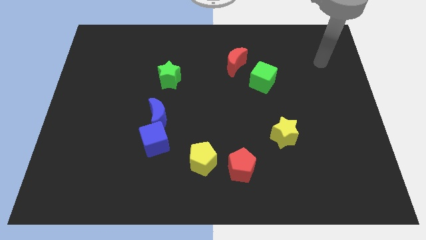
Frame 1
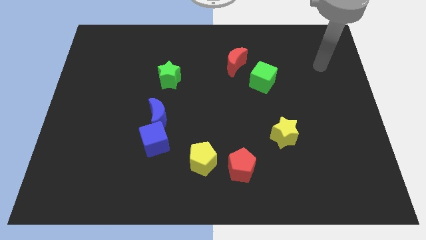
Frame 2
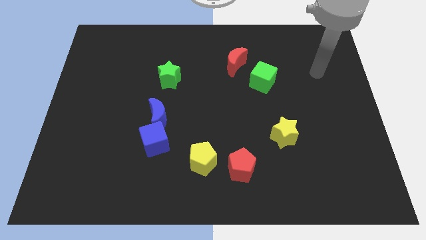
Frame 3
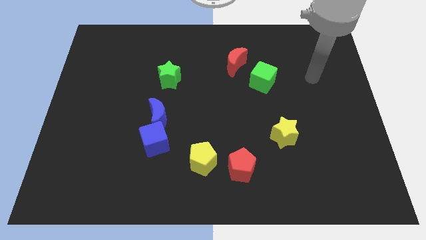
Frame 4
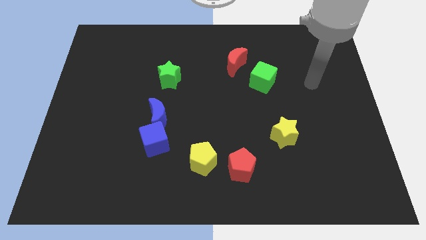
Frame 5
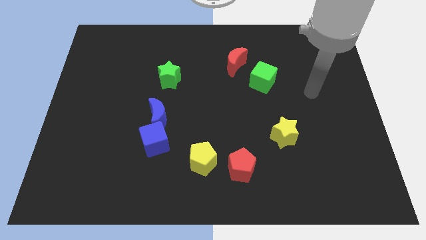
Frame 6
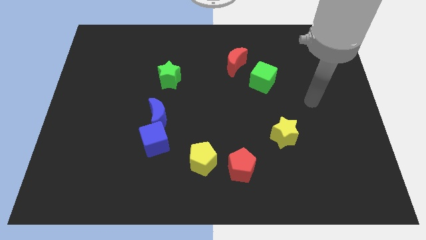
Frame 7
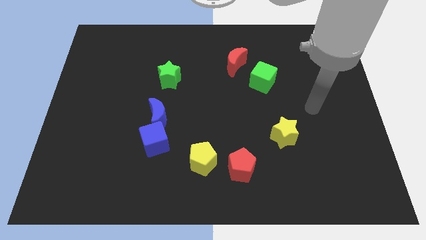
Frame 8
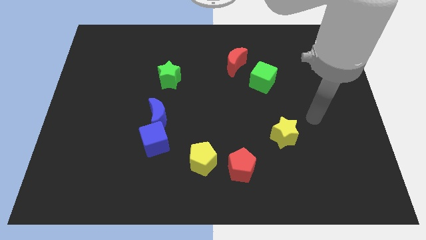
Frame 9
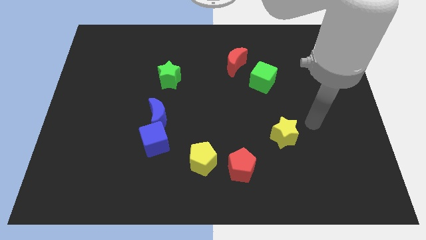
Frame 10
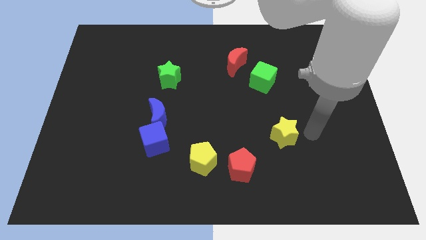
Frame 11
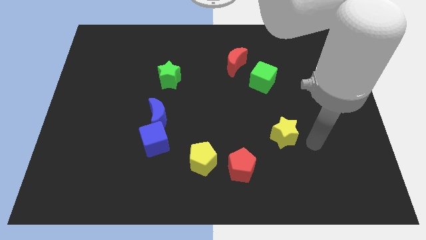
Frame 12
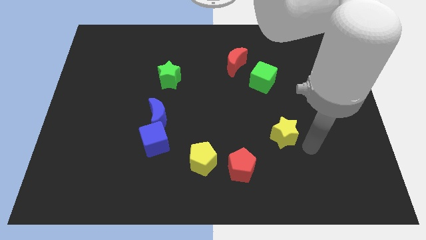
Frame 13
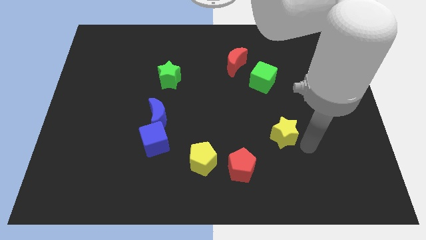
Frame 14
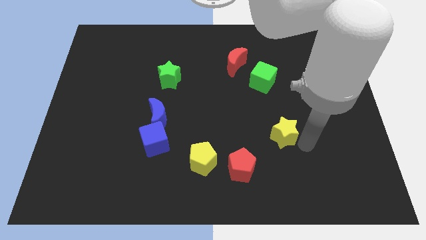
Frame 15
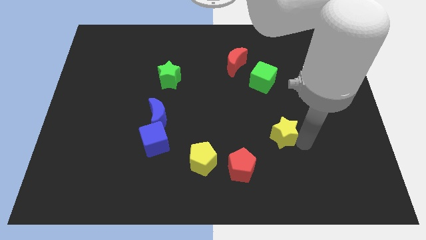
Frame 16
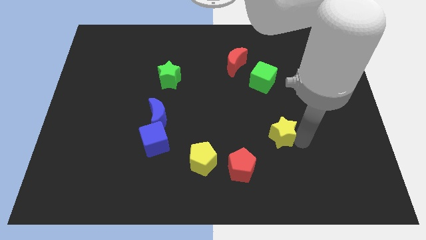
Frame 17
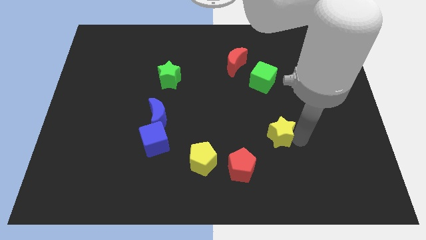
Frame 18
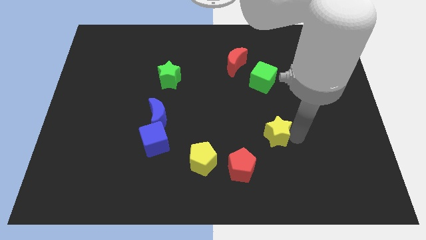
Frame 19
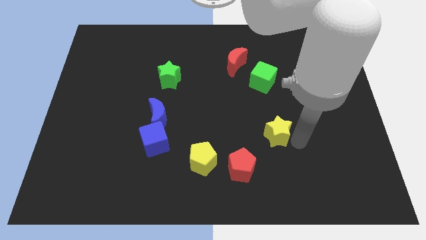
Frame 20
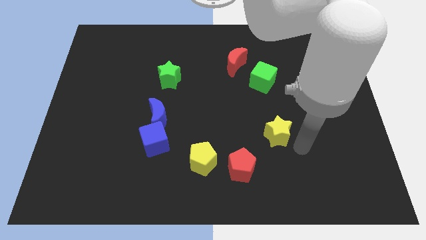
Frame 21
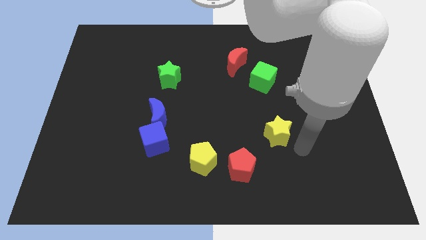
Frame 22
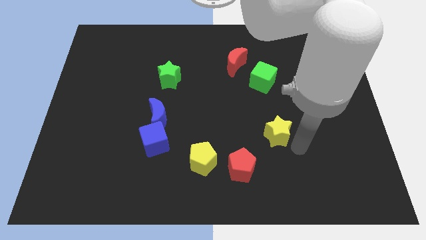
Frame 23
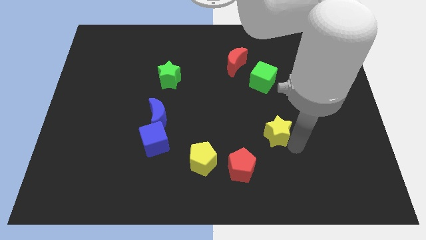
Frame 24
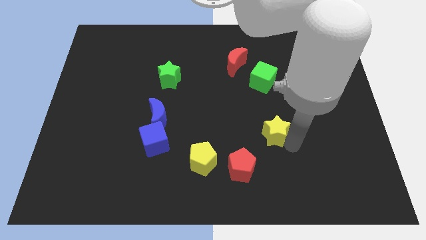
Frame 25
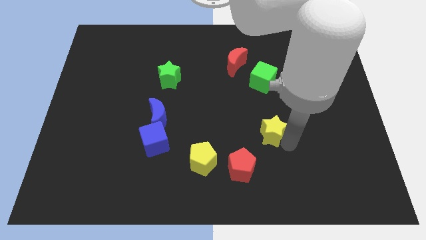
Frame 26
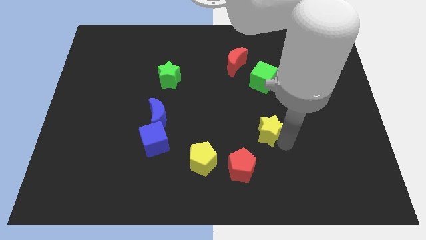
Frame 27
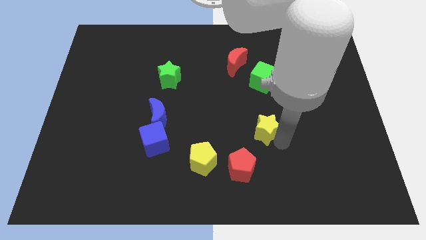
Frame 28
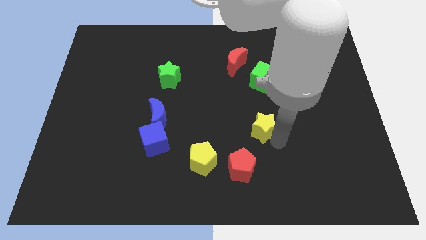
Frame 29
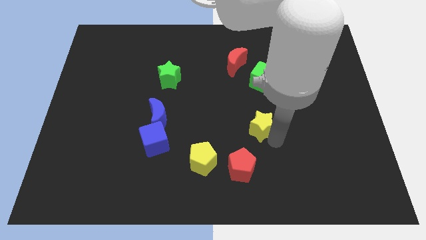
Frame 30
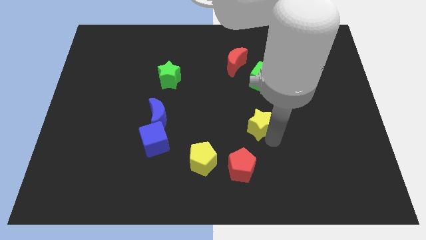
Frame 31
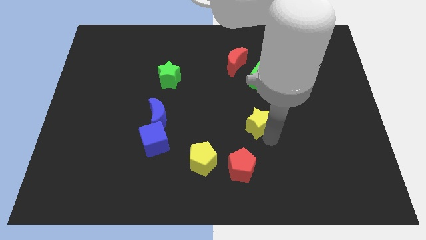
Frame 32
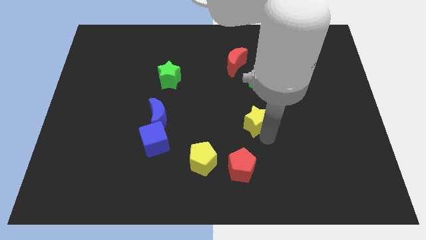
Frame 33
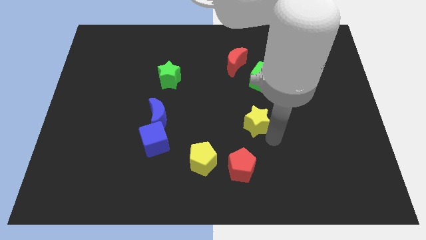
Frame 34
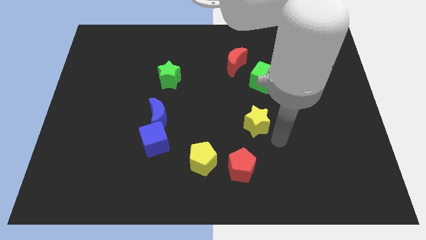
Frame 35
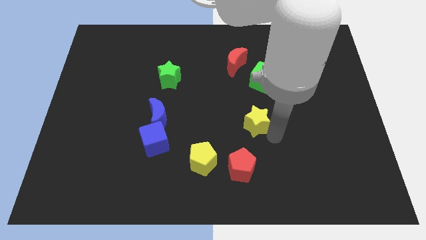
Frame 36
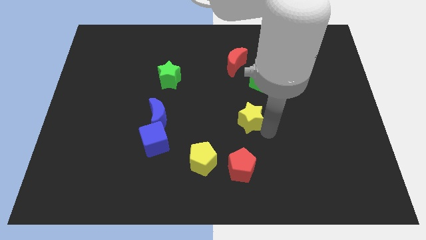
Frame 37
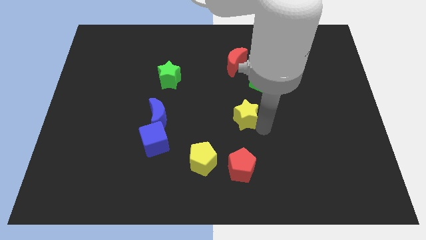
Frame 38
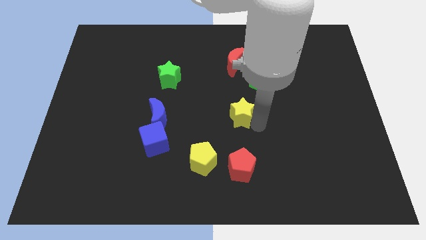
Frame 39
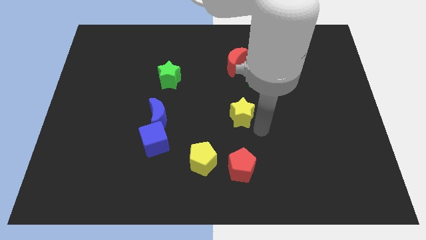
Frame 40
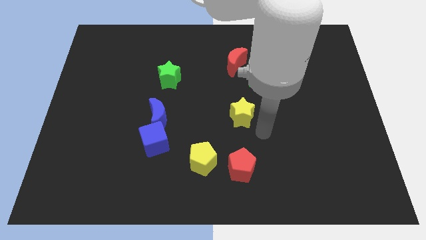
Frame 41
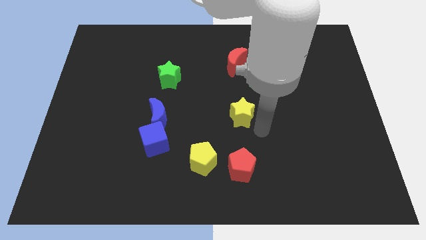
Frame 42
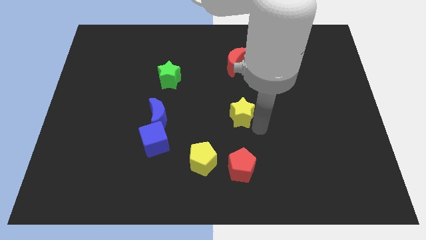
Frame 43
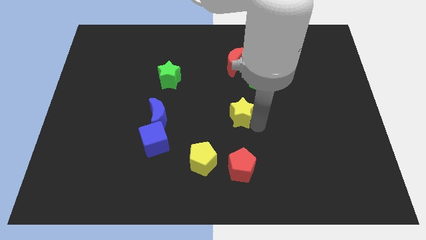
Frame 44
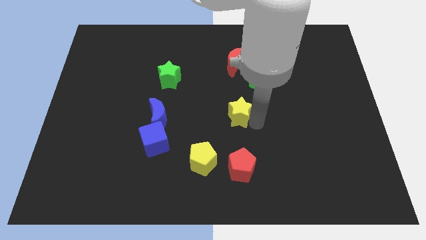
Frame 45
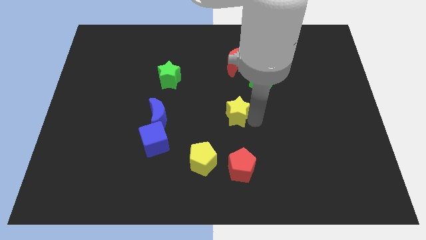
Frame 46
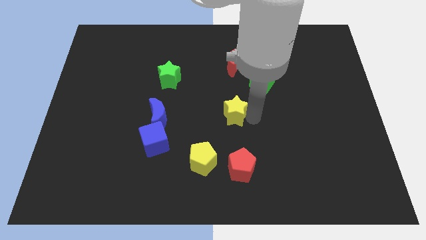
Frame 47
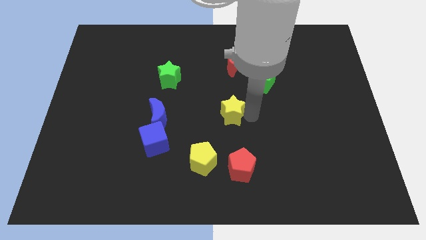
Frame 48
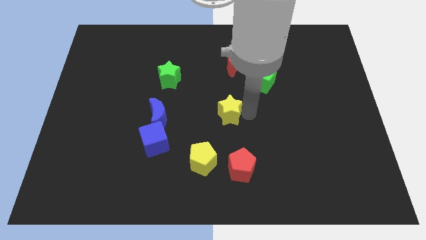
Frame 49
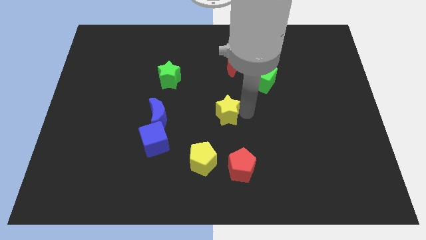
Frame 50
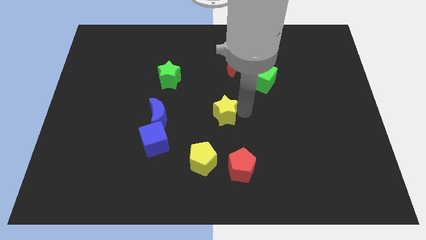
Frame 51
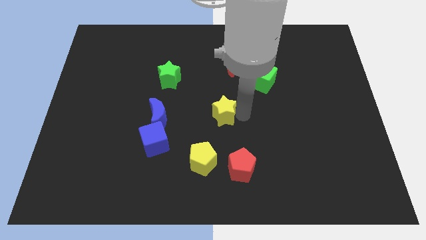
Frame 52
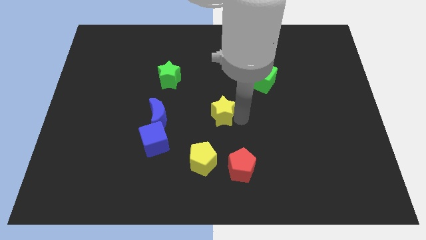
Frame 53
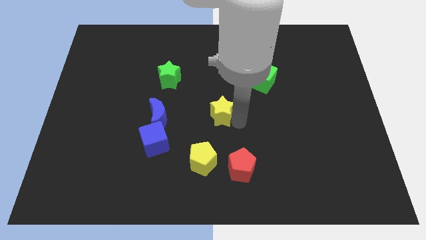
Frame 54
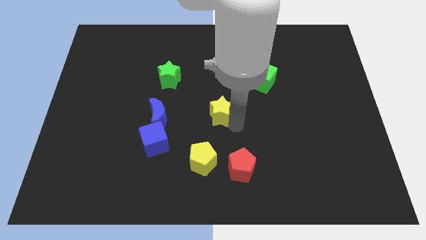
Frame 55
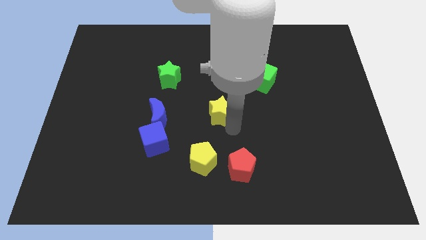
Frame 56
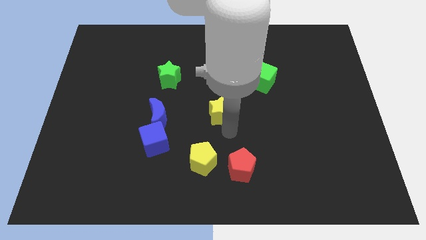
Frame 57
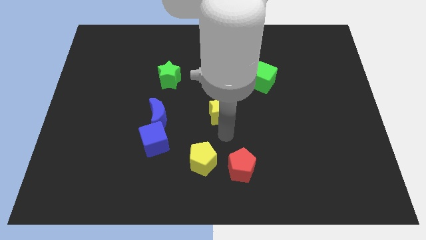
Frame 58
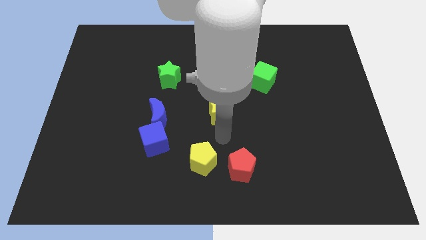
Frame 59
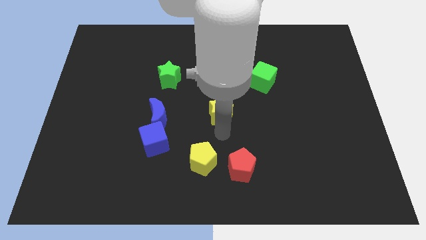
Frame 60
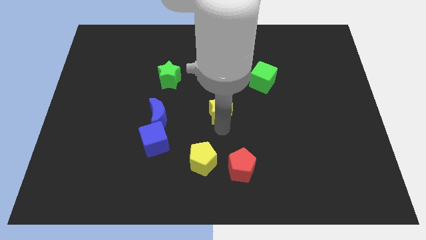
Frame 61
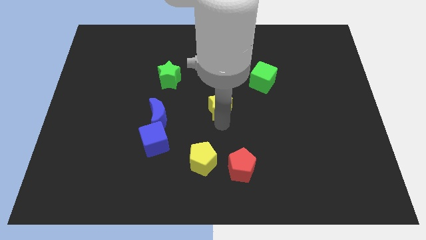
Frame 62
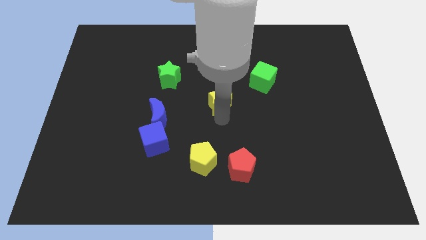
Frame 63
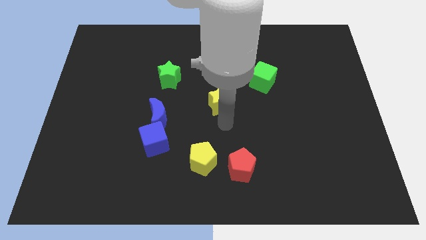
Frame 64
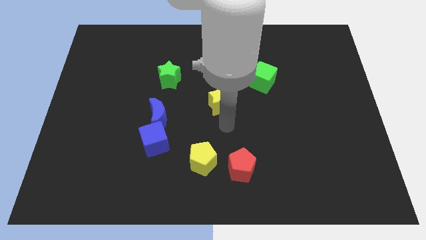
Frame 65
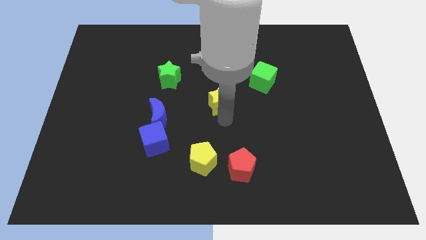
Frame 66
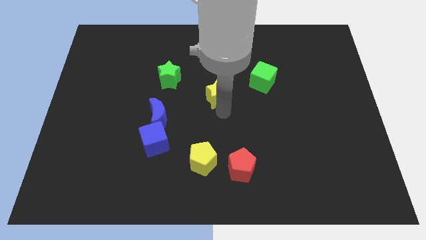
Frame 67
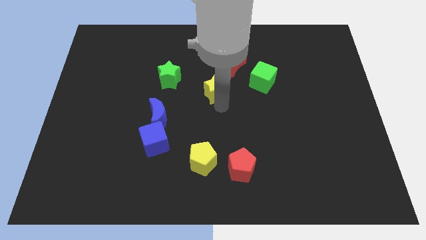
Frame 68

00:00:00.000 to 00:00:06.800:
put the yellow star diagonally down and to the left of the red moon

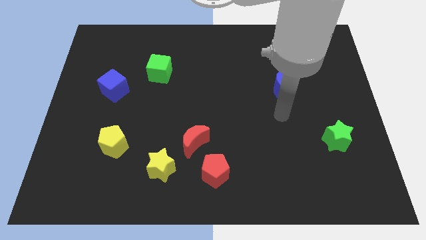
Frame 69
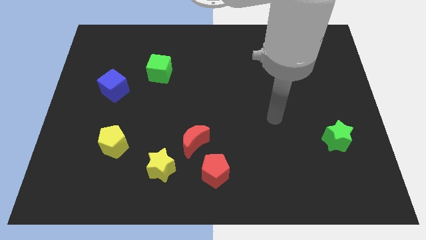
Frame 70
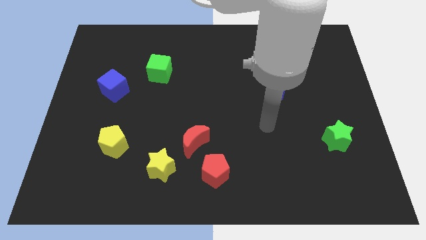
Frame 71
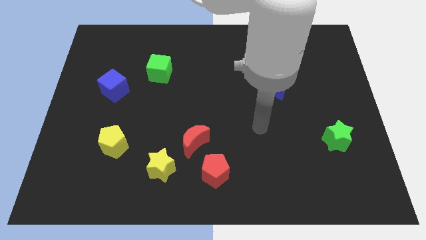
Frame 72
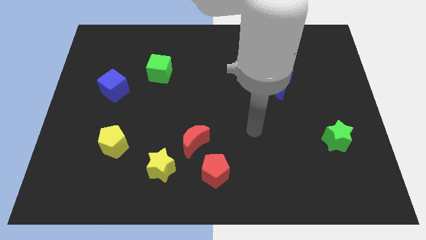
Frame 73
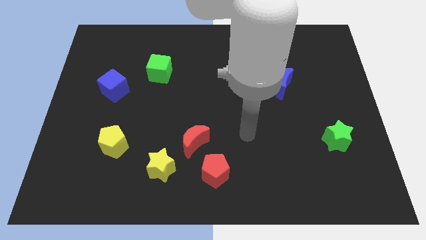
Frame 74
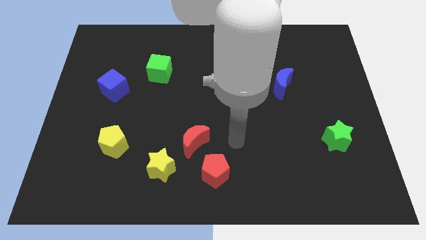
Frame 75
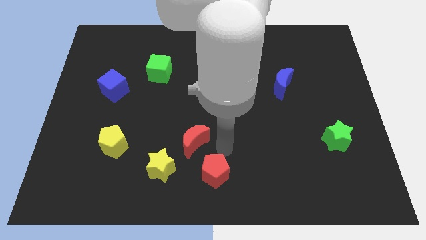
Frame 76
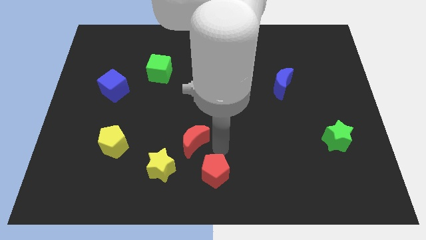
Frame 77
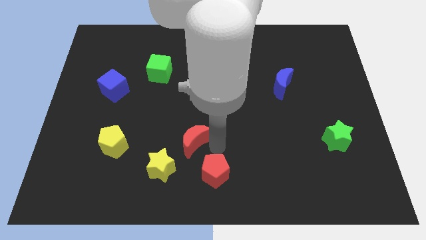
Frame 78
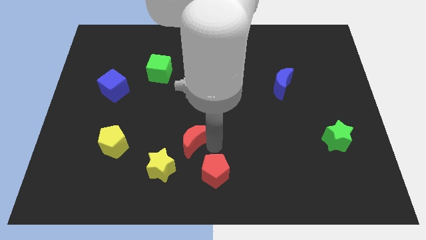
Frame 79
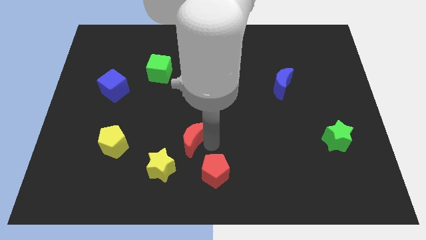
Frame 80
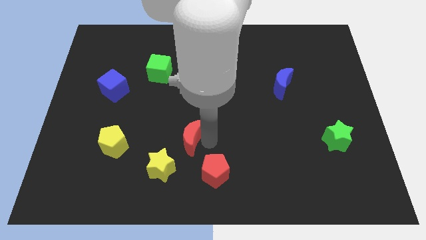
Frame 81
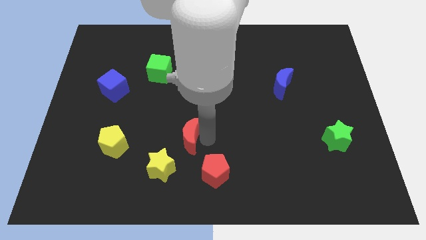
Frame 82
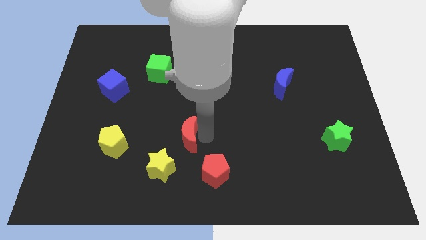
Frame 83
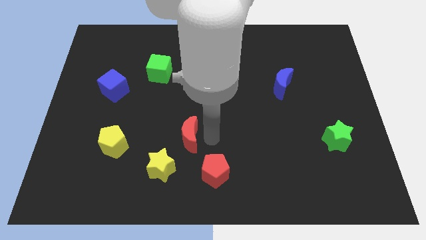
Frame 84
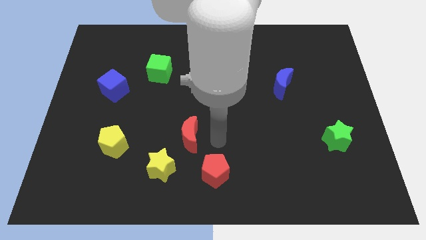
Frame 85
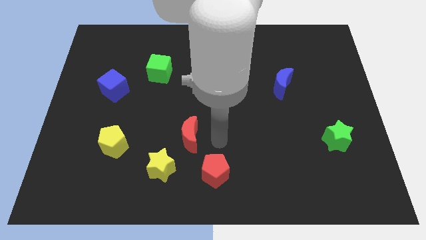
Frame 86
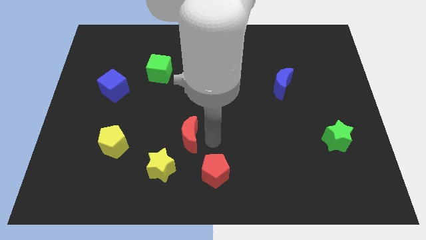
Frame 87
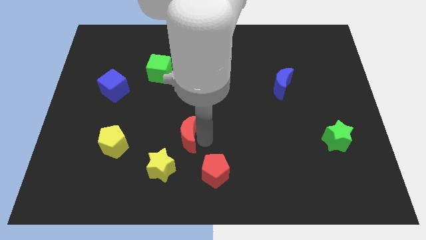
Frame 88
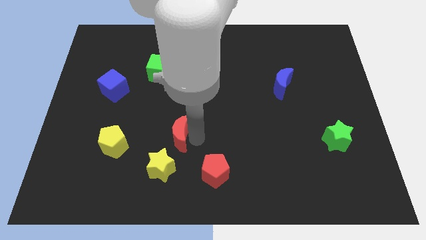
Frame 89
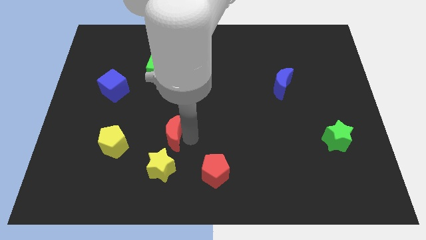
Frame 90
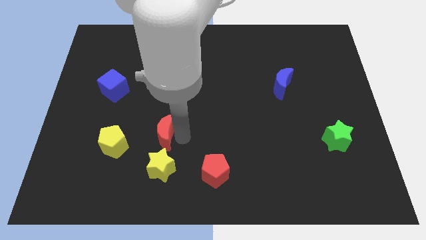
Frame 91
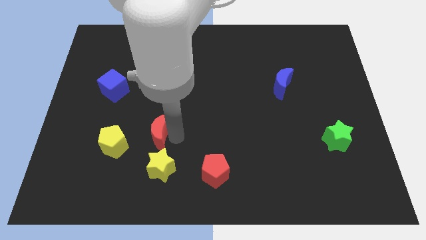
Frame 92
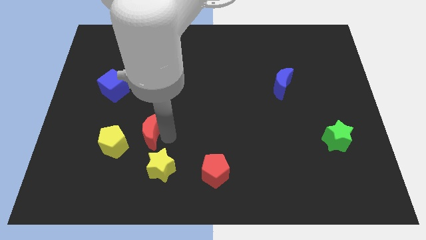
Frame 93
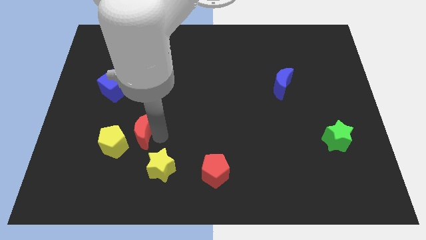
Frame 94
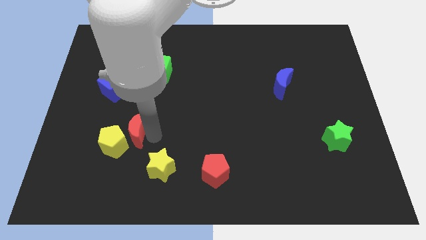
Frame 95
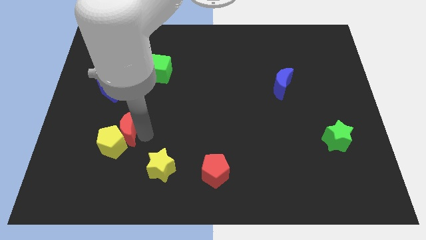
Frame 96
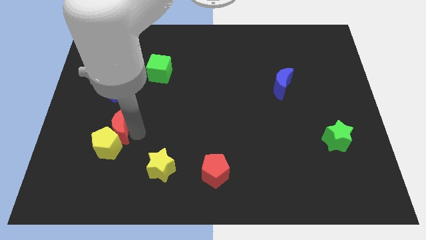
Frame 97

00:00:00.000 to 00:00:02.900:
put the red moon below the blue cube
